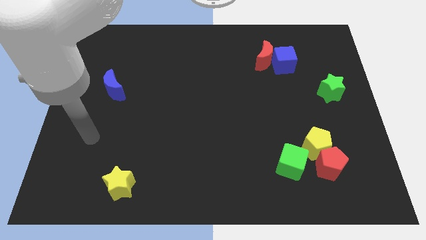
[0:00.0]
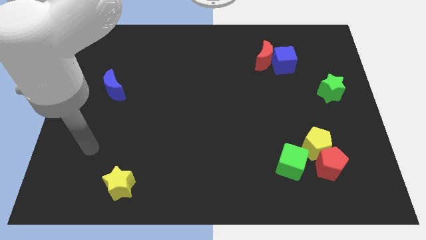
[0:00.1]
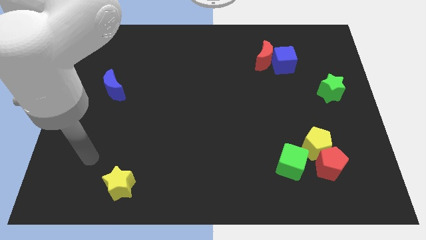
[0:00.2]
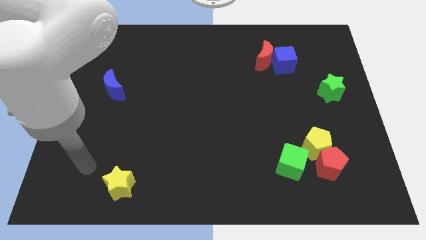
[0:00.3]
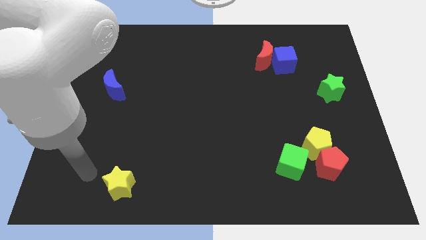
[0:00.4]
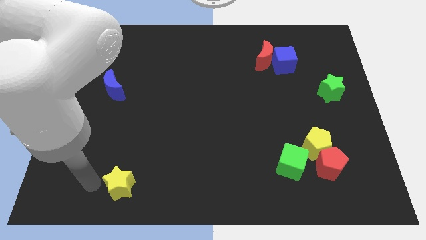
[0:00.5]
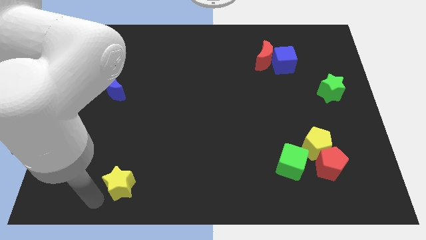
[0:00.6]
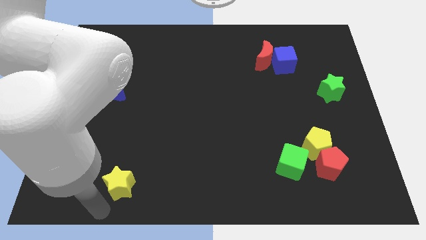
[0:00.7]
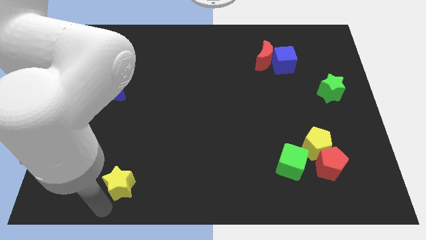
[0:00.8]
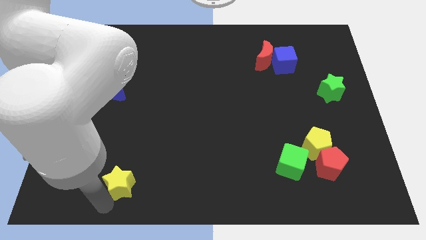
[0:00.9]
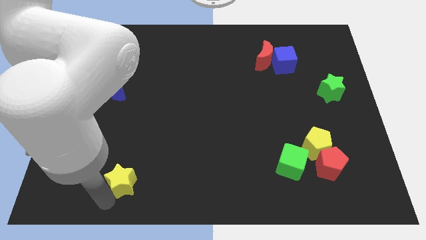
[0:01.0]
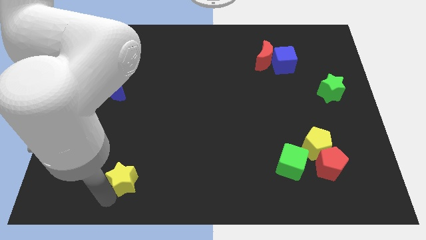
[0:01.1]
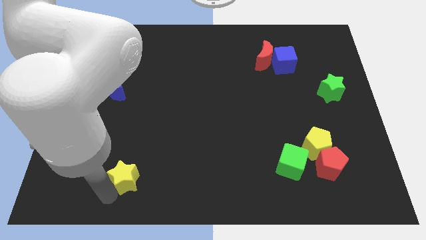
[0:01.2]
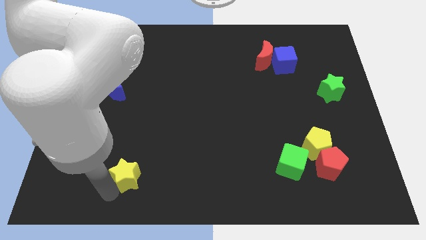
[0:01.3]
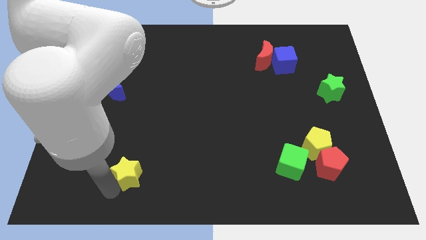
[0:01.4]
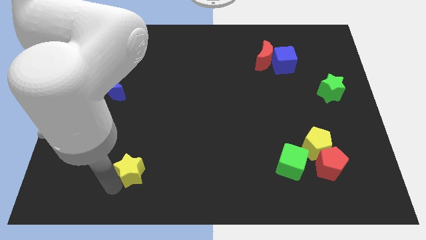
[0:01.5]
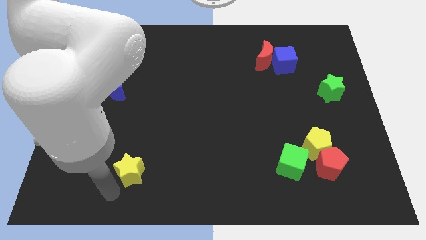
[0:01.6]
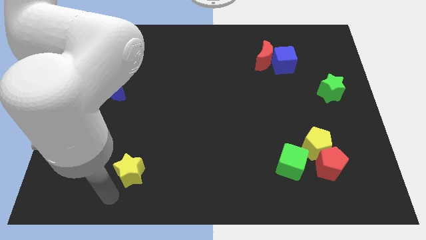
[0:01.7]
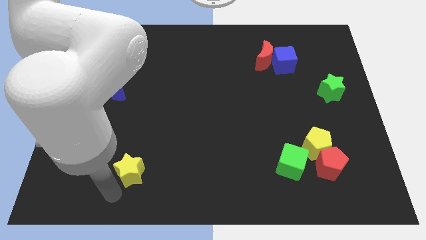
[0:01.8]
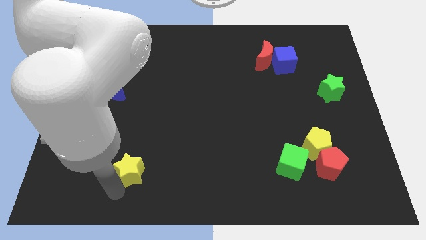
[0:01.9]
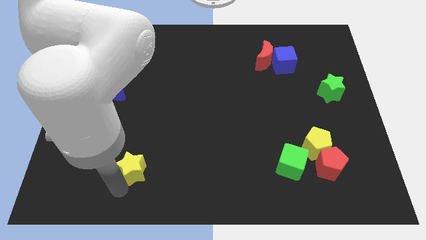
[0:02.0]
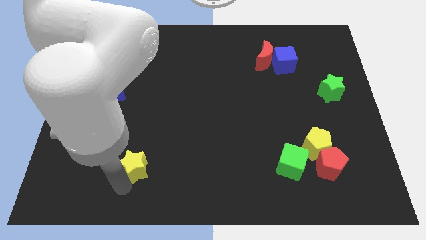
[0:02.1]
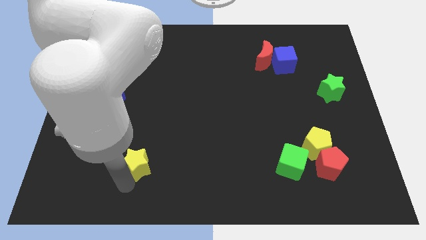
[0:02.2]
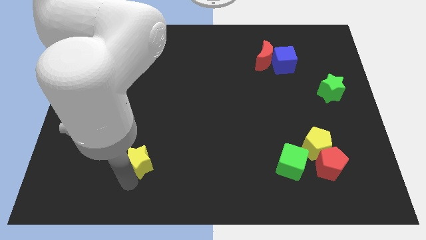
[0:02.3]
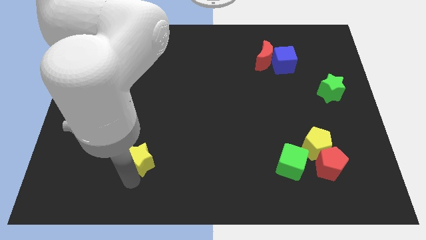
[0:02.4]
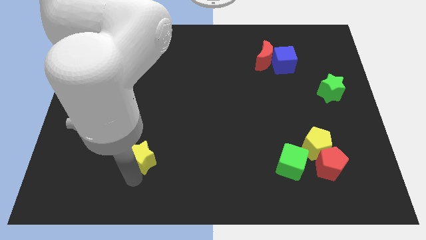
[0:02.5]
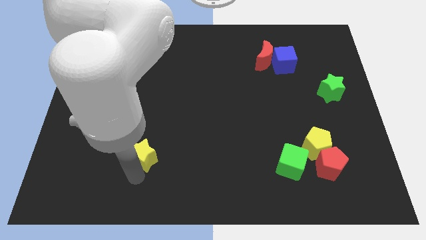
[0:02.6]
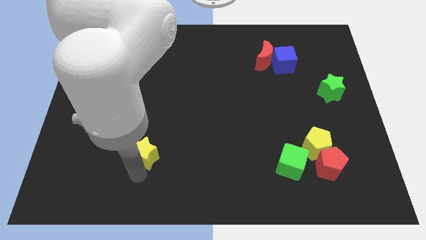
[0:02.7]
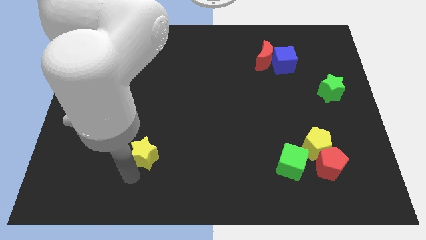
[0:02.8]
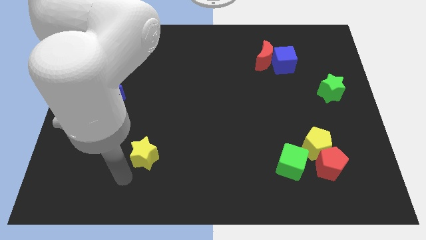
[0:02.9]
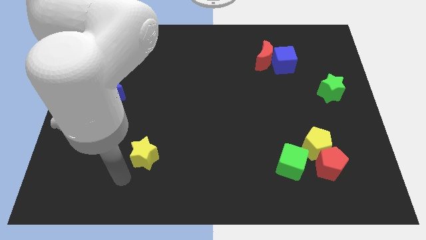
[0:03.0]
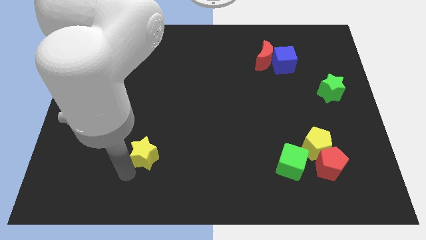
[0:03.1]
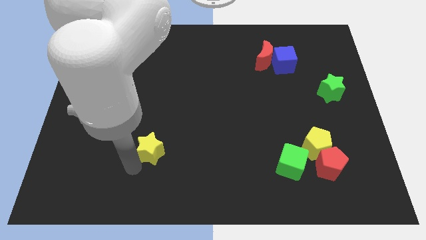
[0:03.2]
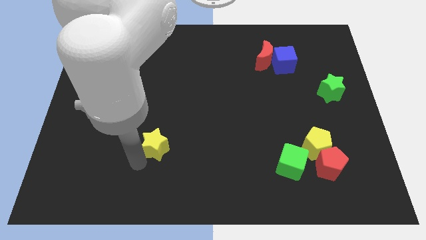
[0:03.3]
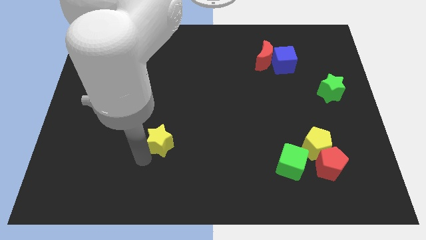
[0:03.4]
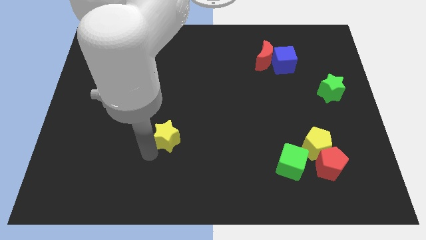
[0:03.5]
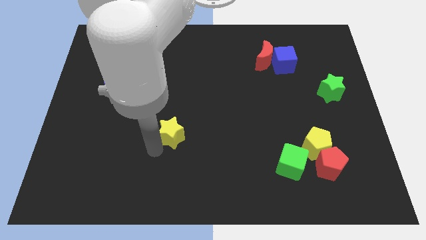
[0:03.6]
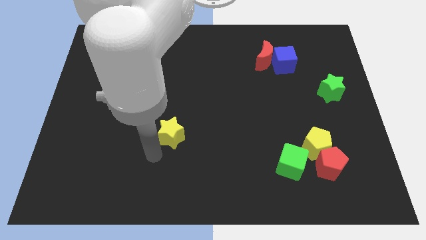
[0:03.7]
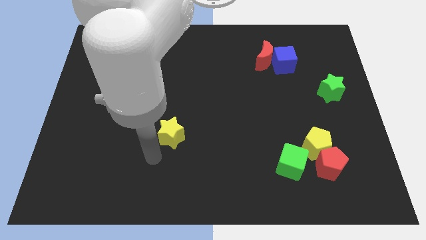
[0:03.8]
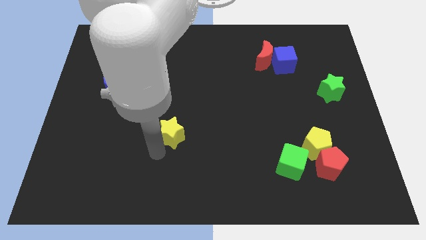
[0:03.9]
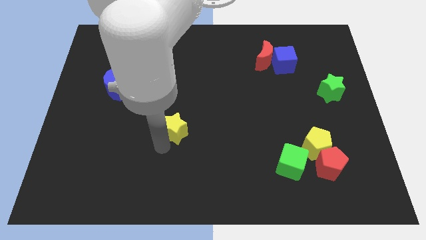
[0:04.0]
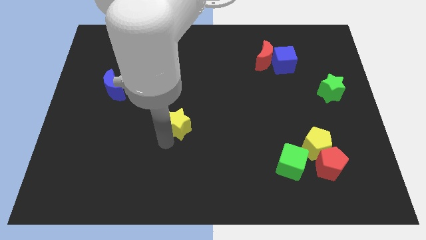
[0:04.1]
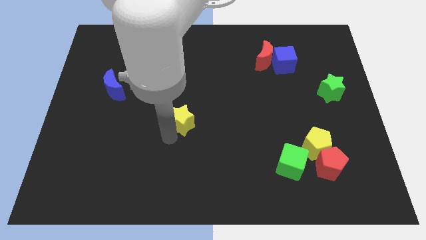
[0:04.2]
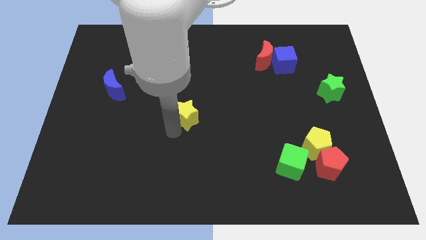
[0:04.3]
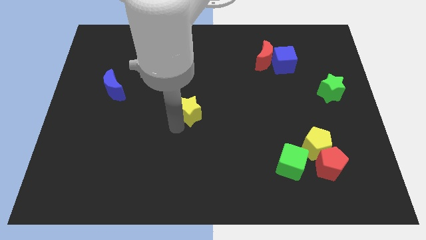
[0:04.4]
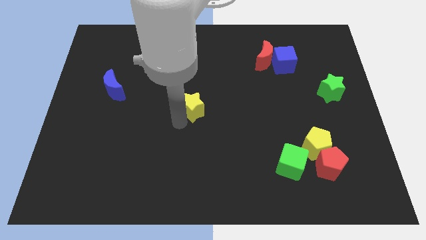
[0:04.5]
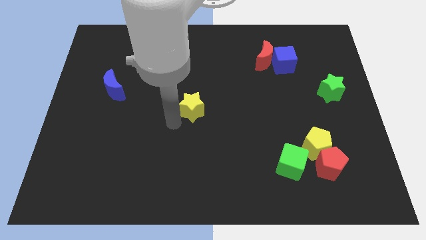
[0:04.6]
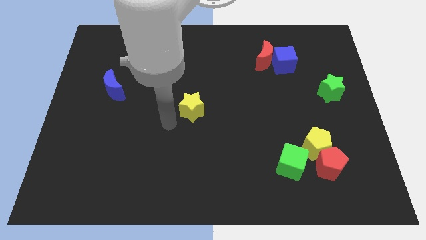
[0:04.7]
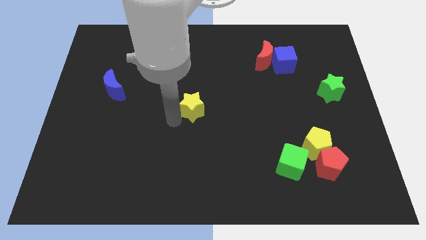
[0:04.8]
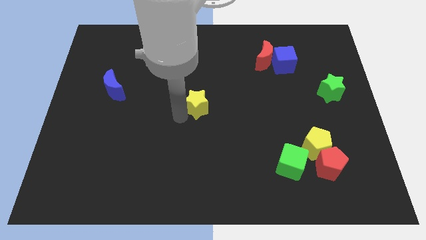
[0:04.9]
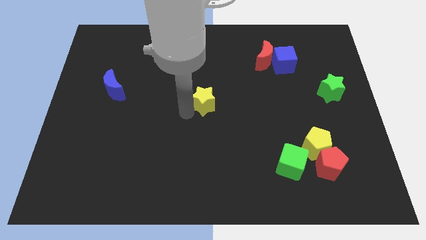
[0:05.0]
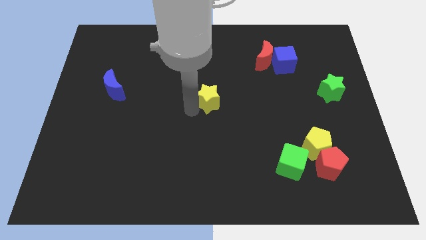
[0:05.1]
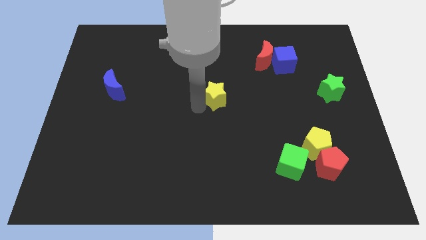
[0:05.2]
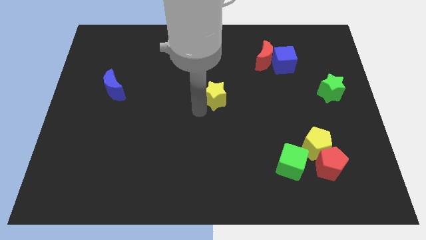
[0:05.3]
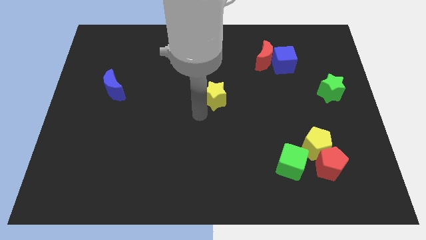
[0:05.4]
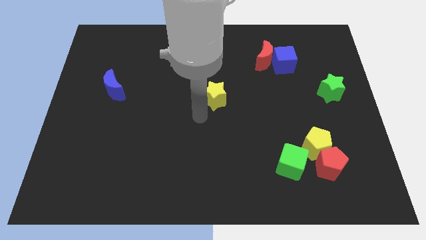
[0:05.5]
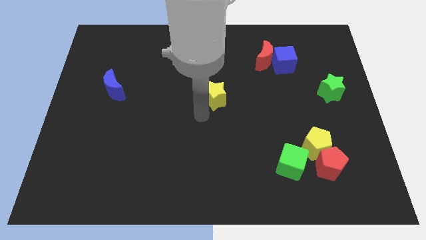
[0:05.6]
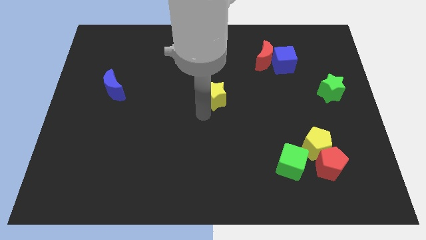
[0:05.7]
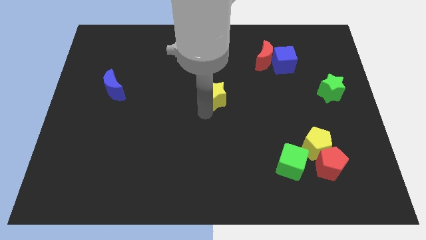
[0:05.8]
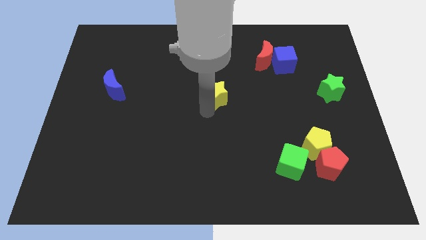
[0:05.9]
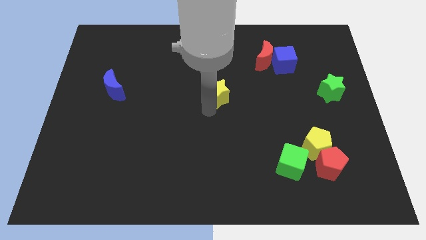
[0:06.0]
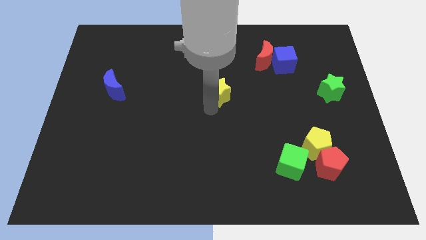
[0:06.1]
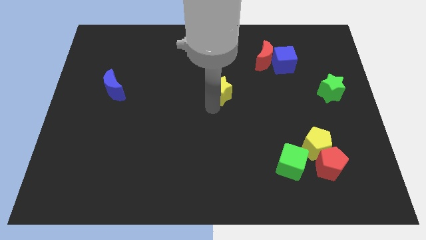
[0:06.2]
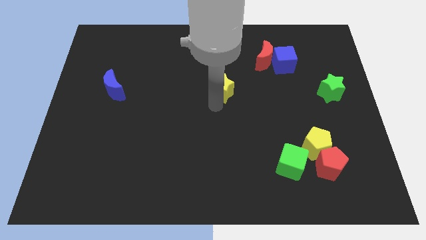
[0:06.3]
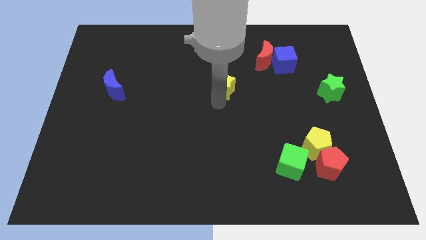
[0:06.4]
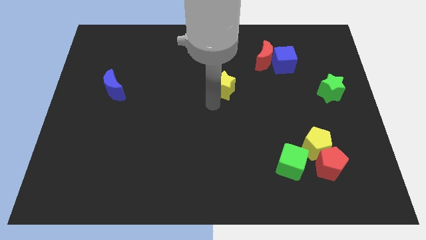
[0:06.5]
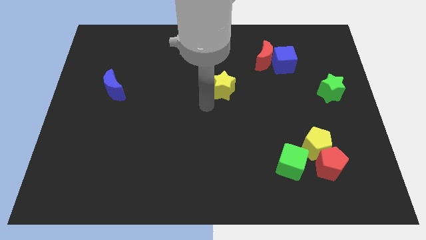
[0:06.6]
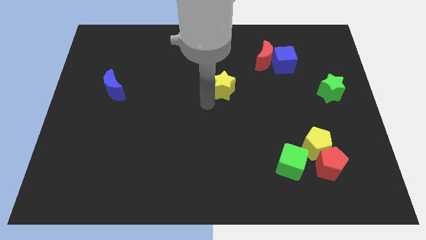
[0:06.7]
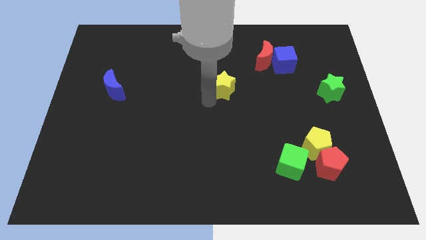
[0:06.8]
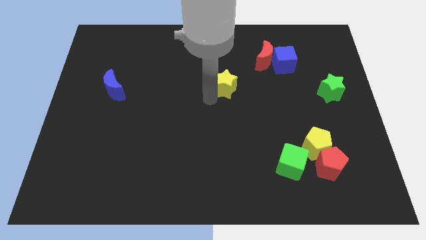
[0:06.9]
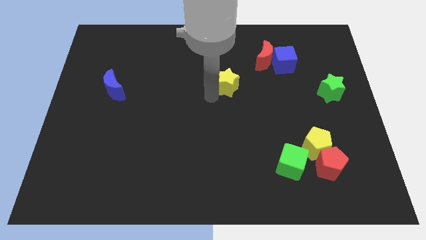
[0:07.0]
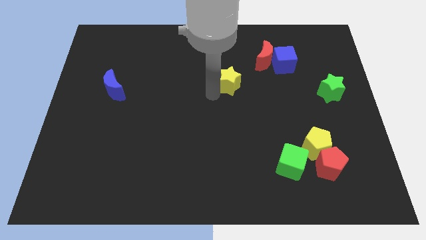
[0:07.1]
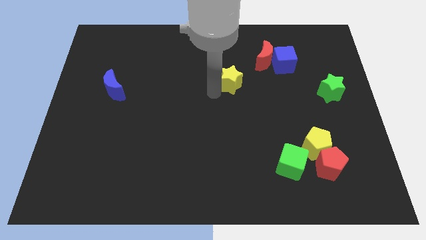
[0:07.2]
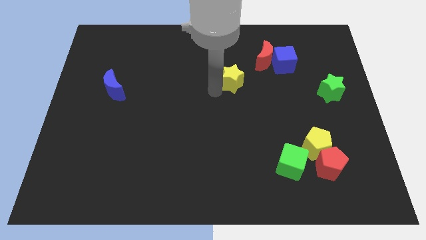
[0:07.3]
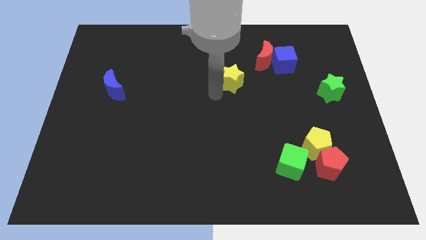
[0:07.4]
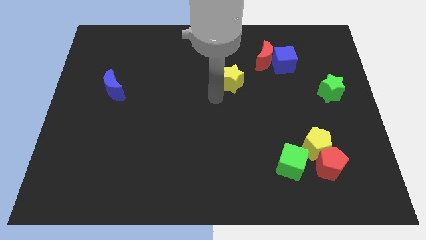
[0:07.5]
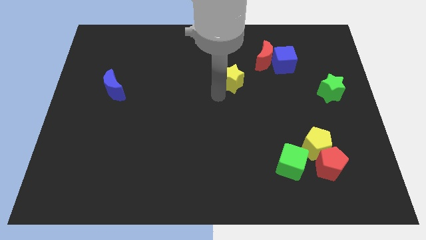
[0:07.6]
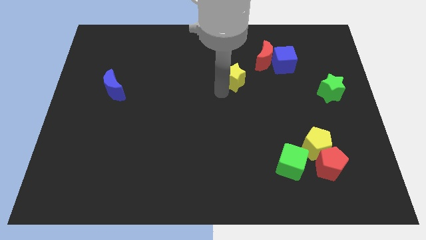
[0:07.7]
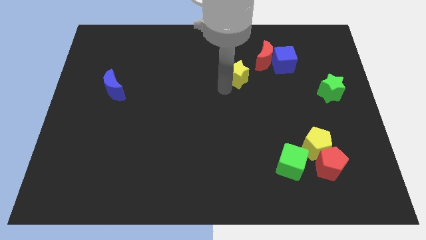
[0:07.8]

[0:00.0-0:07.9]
slide the yellow star to the left of the blue cube
